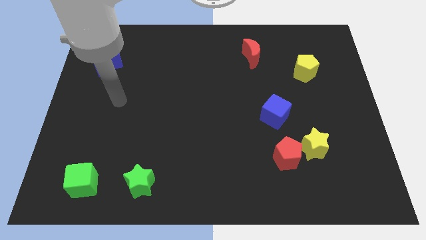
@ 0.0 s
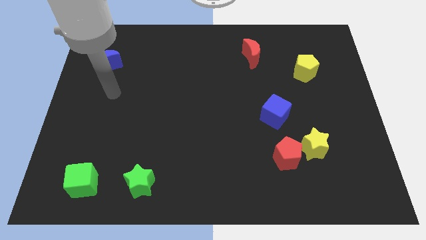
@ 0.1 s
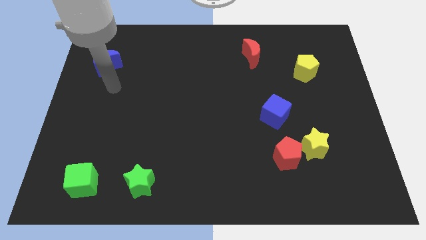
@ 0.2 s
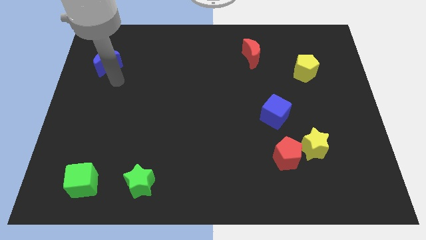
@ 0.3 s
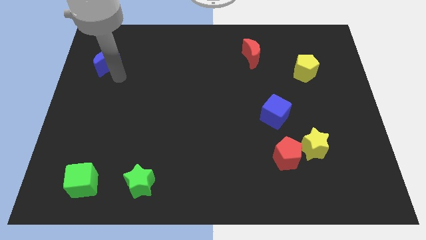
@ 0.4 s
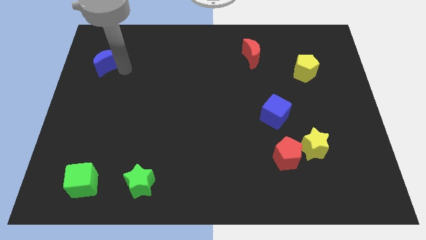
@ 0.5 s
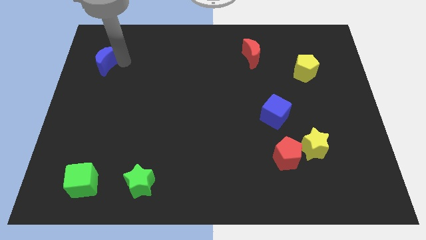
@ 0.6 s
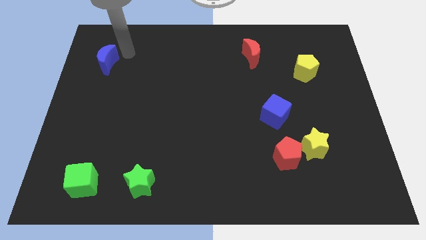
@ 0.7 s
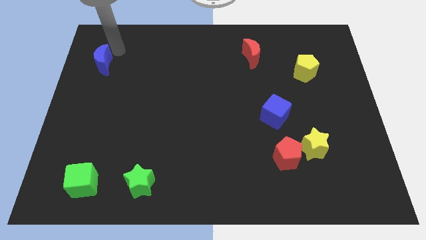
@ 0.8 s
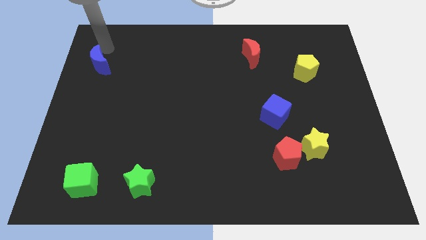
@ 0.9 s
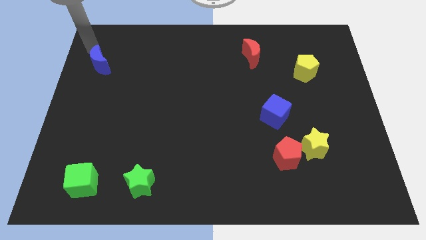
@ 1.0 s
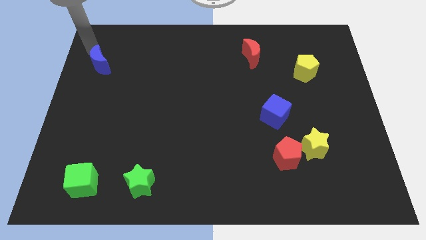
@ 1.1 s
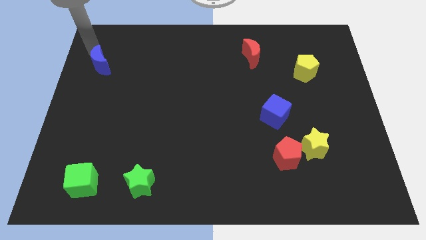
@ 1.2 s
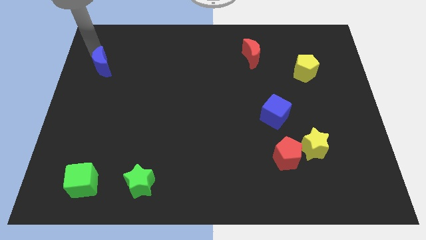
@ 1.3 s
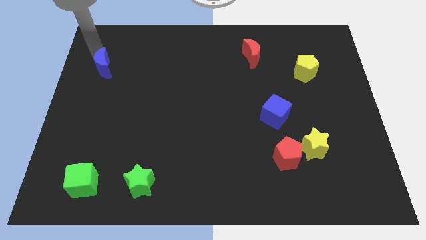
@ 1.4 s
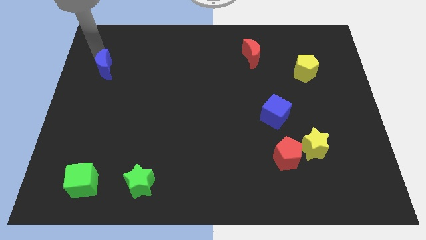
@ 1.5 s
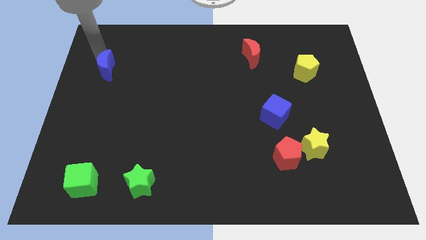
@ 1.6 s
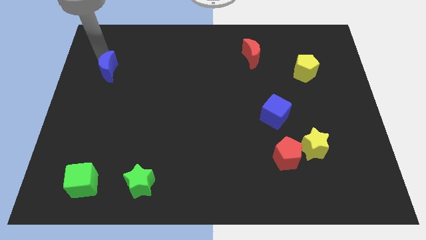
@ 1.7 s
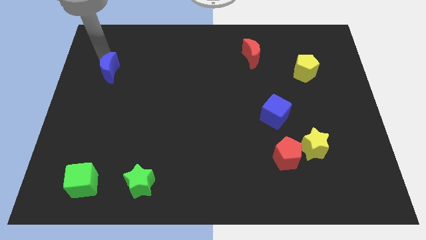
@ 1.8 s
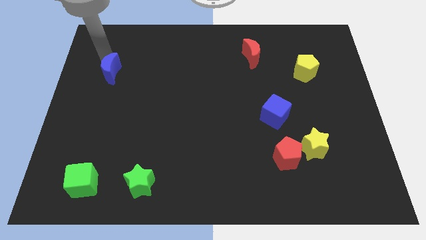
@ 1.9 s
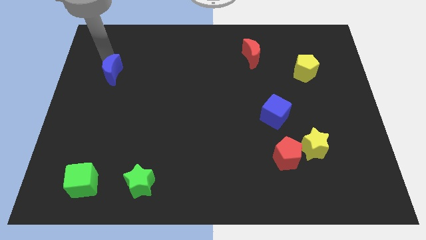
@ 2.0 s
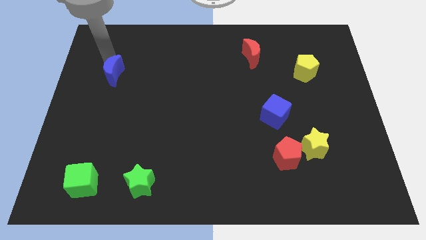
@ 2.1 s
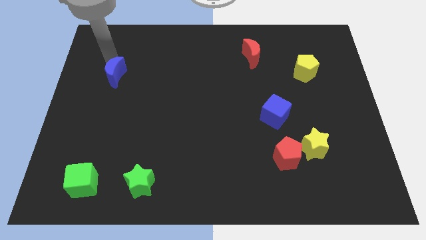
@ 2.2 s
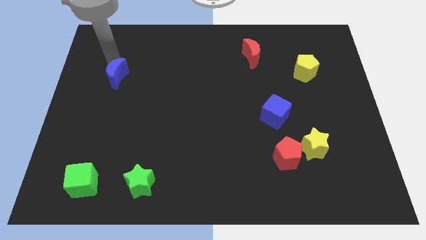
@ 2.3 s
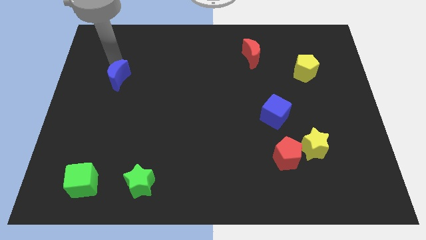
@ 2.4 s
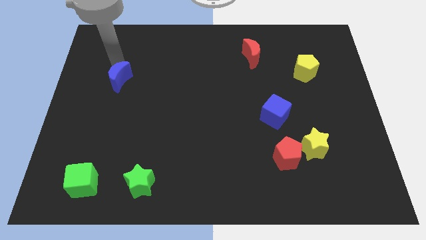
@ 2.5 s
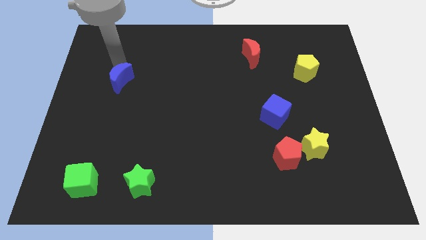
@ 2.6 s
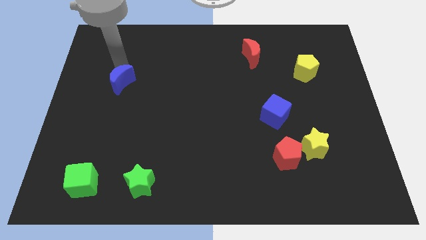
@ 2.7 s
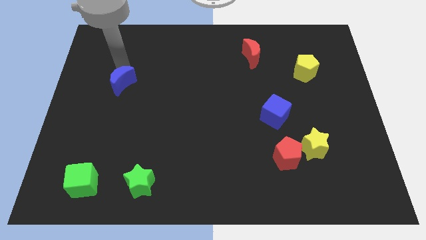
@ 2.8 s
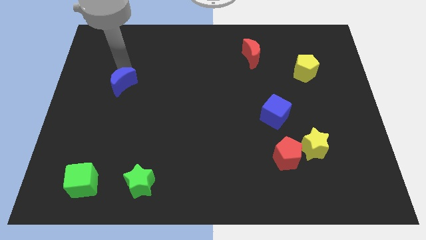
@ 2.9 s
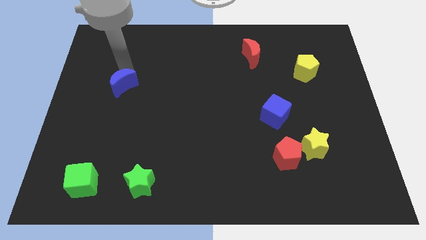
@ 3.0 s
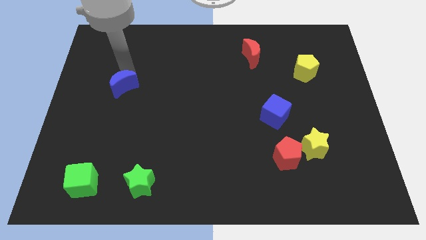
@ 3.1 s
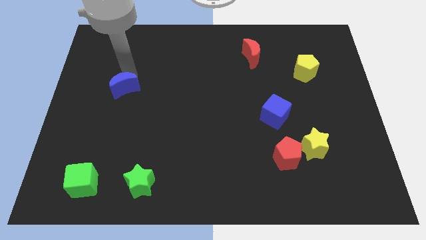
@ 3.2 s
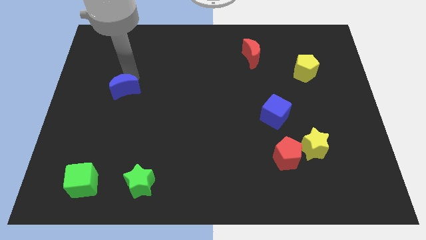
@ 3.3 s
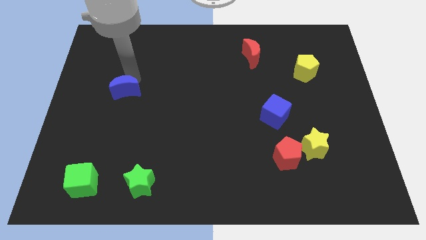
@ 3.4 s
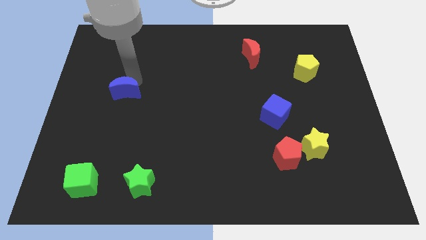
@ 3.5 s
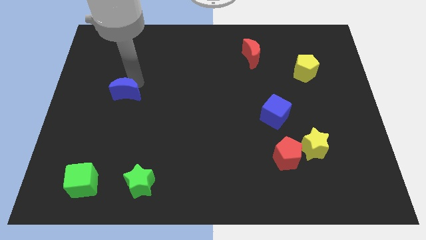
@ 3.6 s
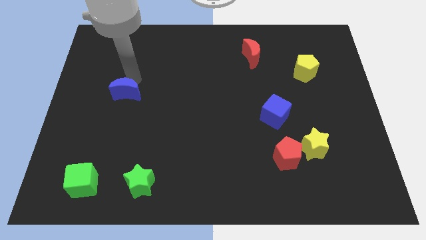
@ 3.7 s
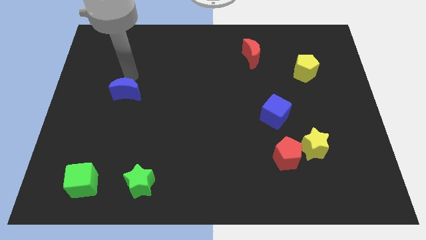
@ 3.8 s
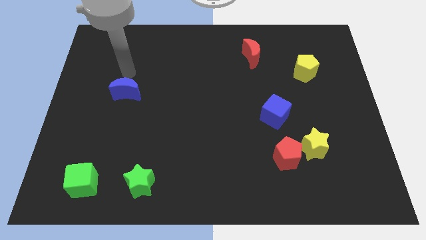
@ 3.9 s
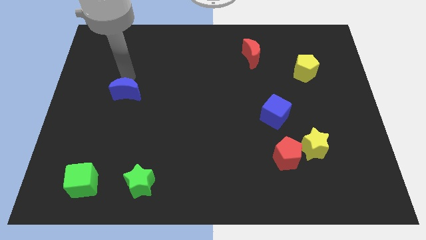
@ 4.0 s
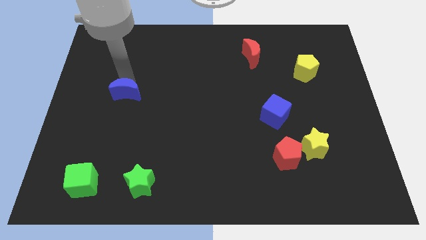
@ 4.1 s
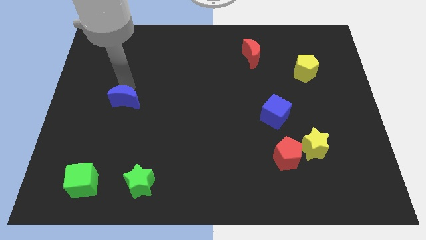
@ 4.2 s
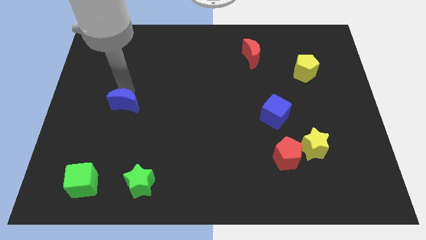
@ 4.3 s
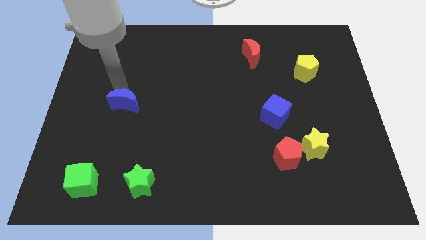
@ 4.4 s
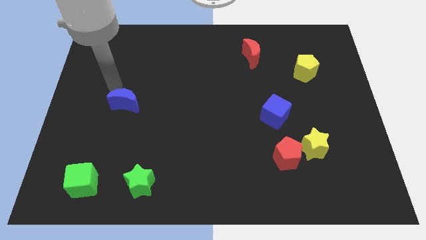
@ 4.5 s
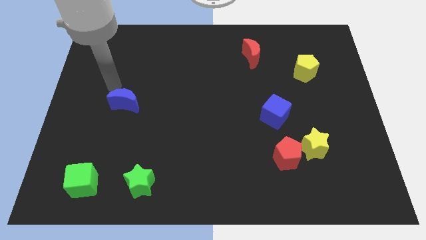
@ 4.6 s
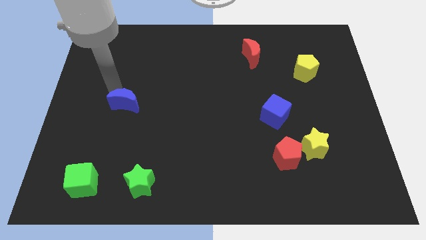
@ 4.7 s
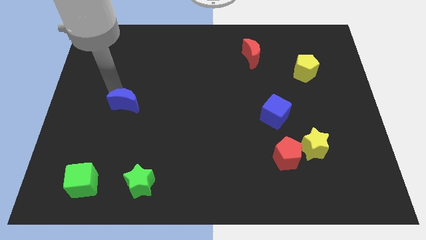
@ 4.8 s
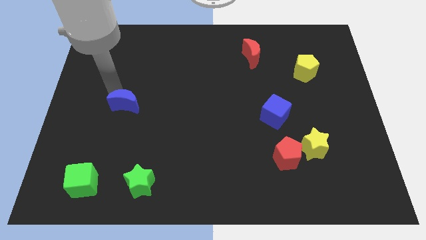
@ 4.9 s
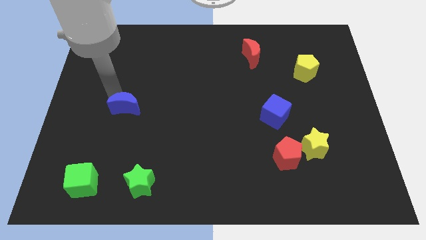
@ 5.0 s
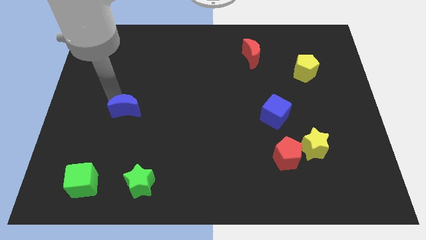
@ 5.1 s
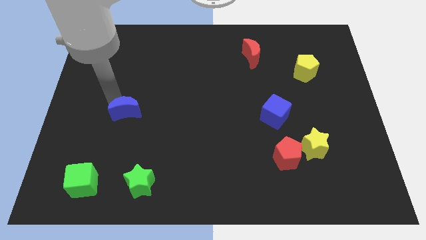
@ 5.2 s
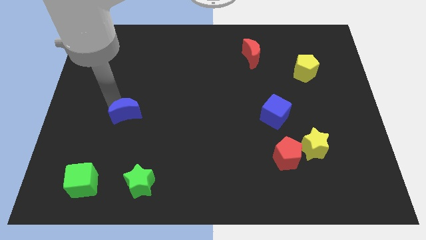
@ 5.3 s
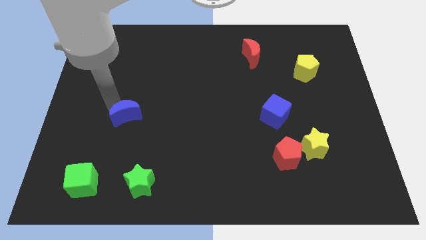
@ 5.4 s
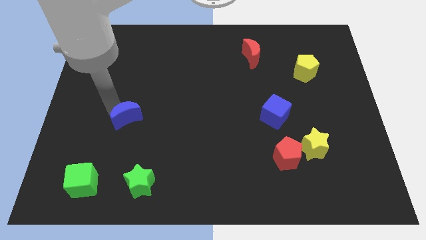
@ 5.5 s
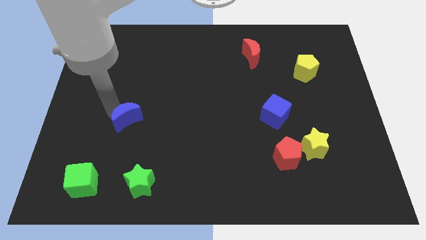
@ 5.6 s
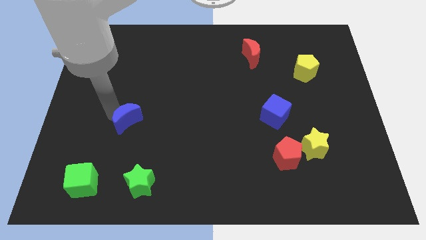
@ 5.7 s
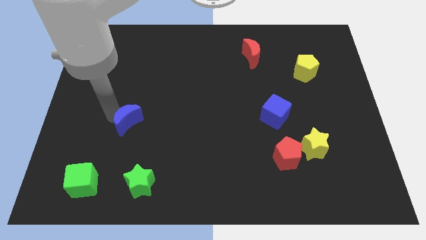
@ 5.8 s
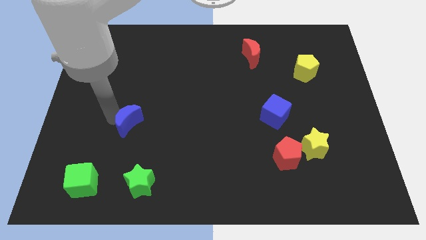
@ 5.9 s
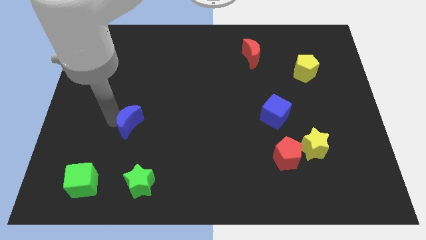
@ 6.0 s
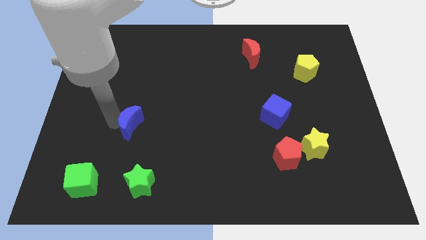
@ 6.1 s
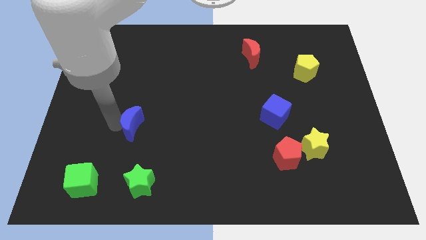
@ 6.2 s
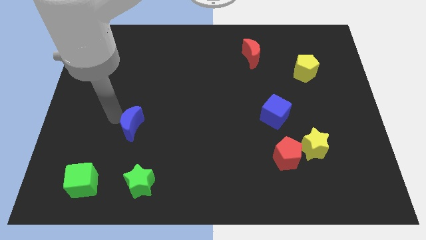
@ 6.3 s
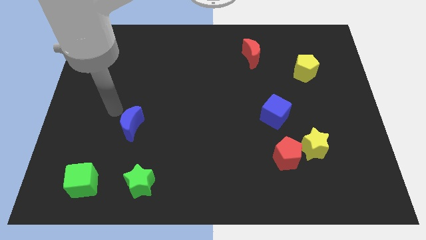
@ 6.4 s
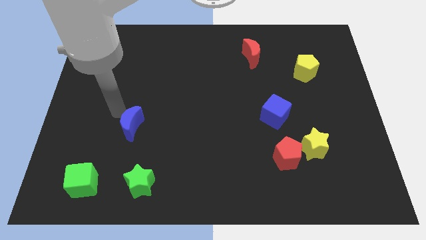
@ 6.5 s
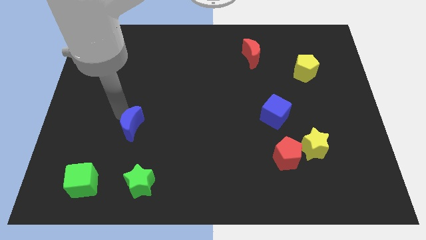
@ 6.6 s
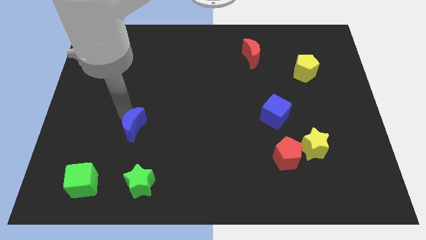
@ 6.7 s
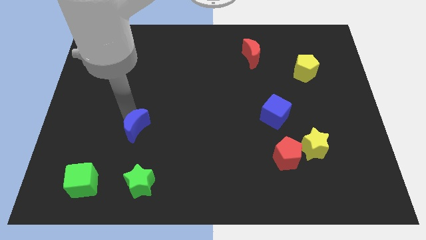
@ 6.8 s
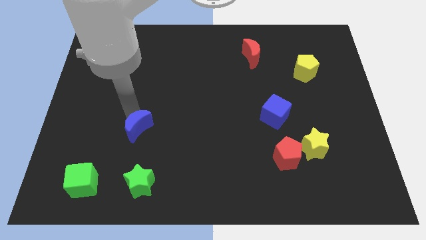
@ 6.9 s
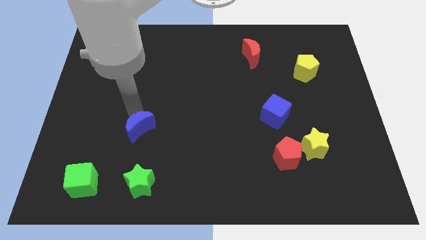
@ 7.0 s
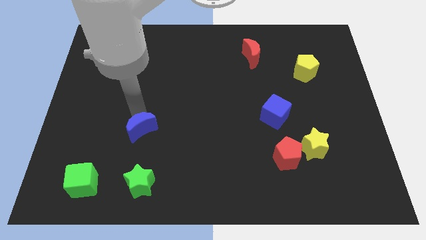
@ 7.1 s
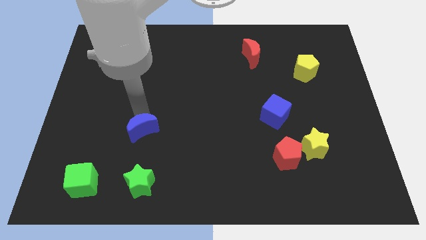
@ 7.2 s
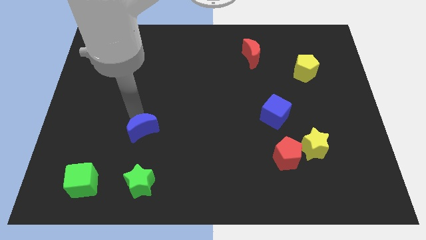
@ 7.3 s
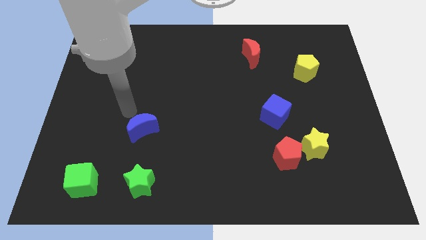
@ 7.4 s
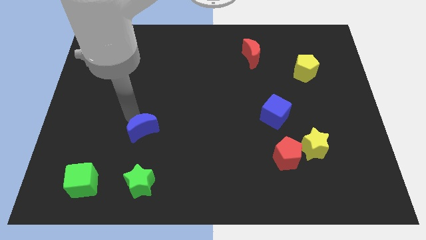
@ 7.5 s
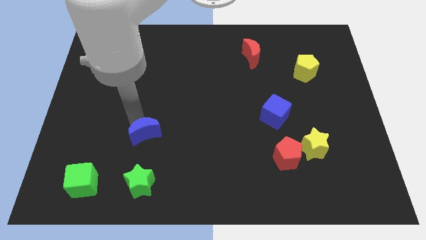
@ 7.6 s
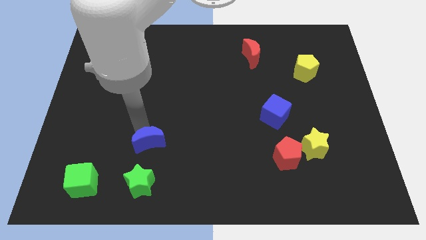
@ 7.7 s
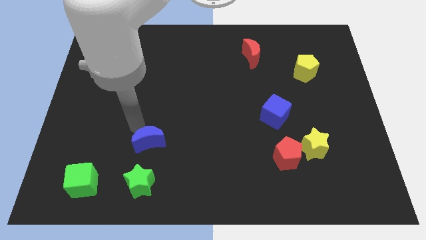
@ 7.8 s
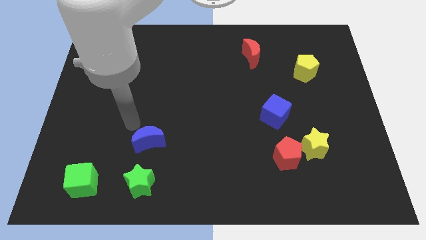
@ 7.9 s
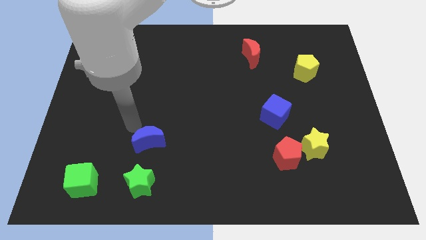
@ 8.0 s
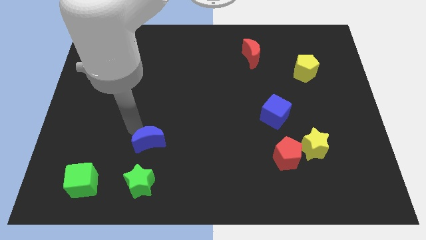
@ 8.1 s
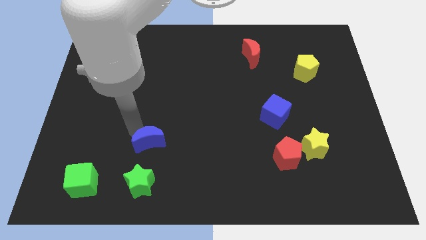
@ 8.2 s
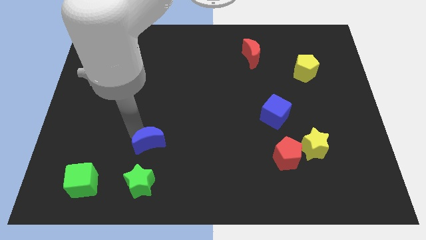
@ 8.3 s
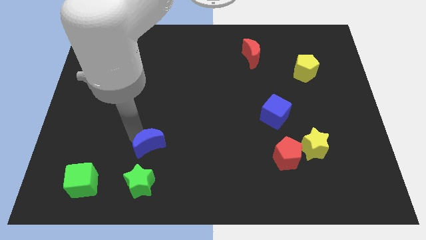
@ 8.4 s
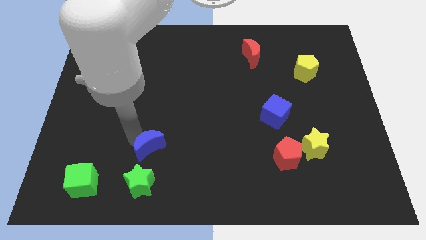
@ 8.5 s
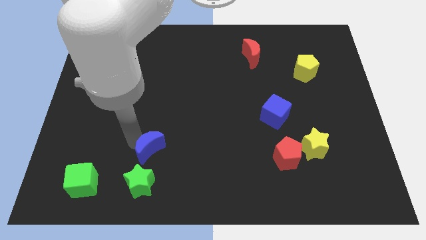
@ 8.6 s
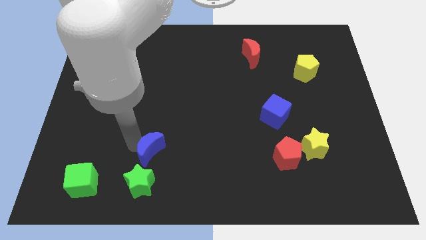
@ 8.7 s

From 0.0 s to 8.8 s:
move the blue moon diagonally up and to the right of the green star

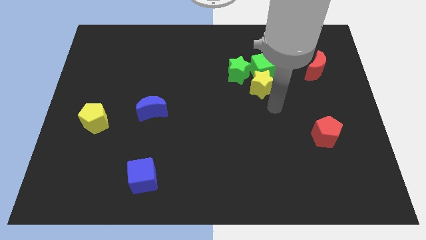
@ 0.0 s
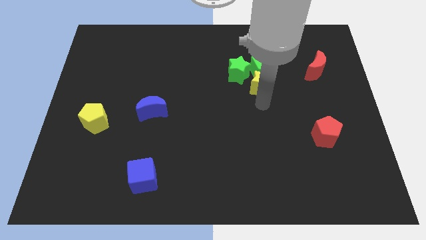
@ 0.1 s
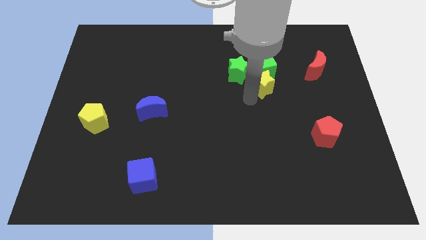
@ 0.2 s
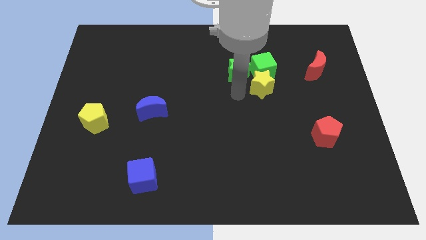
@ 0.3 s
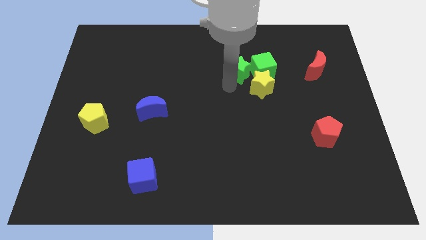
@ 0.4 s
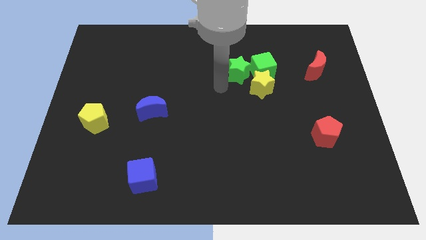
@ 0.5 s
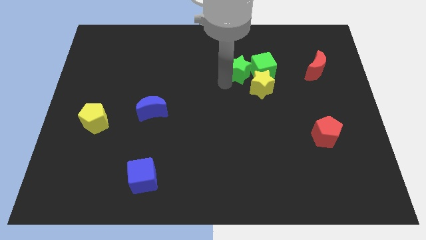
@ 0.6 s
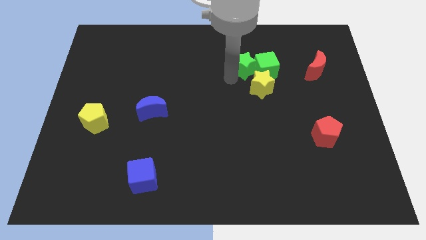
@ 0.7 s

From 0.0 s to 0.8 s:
put the green star to the top of the yellow star
